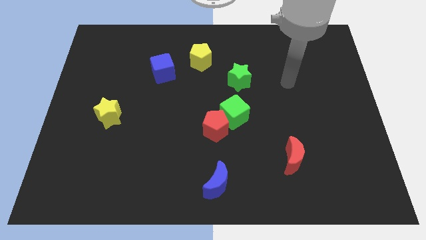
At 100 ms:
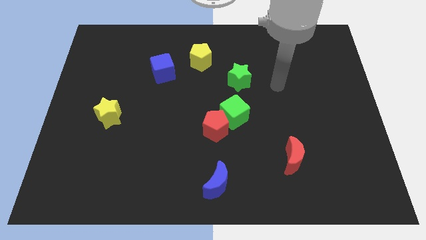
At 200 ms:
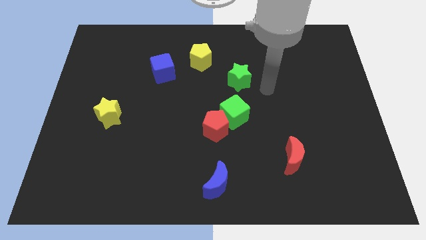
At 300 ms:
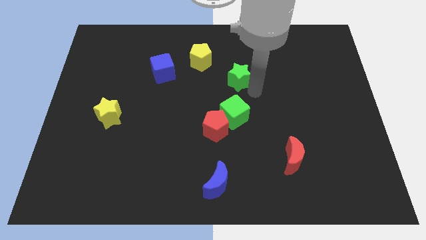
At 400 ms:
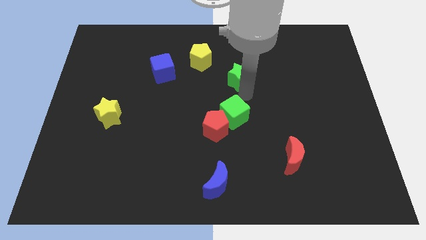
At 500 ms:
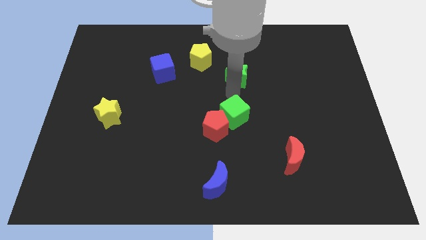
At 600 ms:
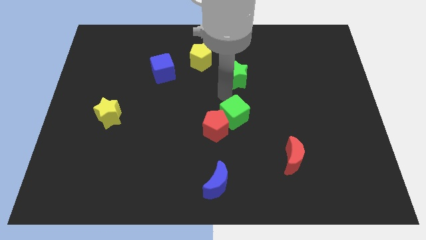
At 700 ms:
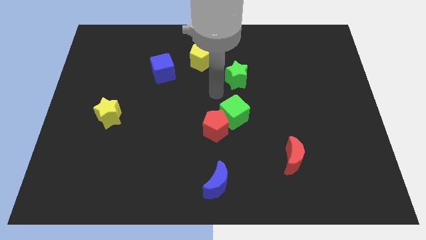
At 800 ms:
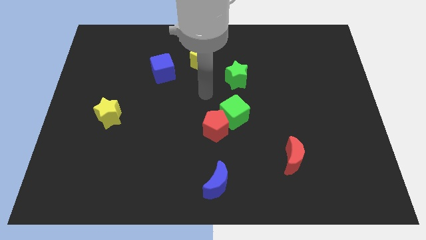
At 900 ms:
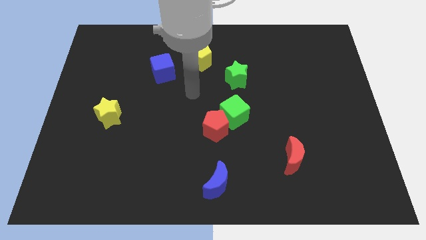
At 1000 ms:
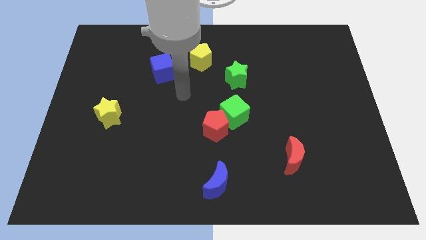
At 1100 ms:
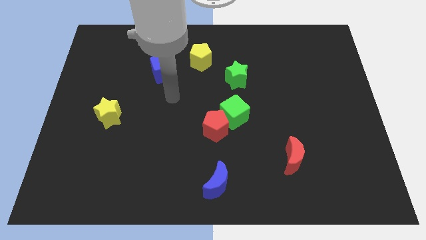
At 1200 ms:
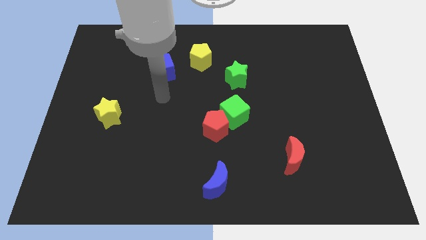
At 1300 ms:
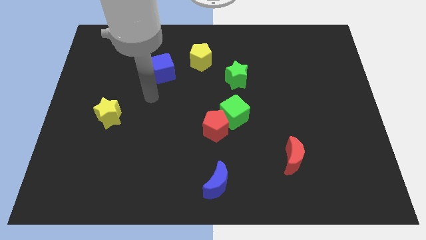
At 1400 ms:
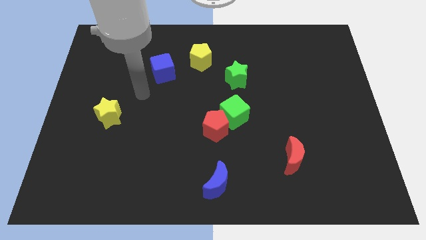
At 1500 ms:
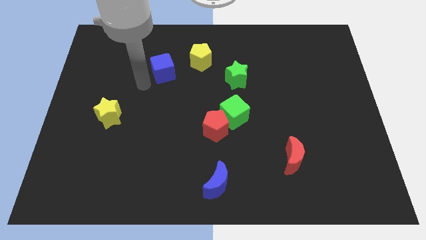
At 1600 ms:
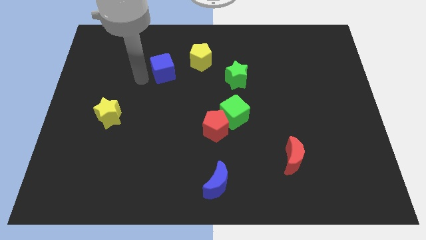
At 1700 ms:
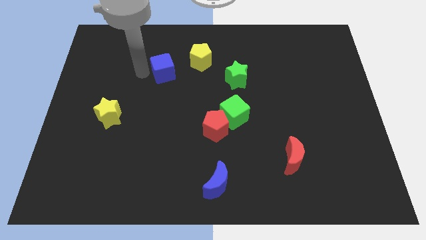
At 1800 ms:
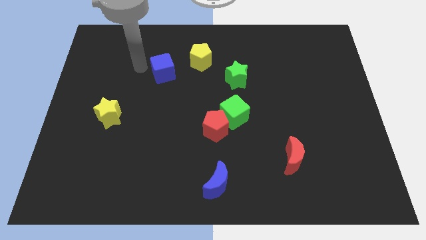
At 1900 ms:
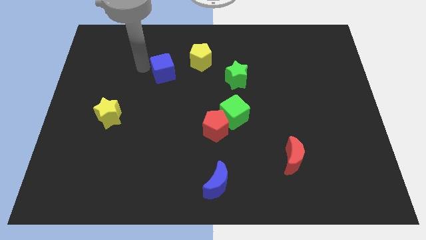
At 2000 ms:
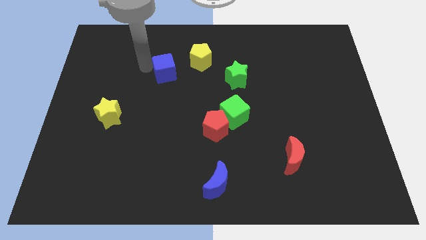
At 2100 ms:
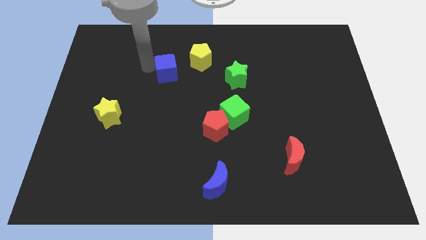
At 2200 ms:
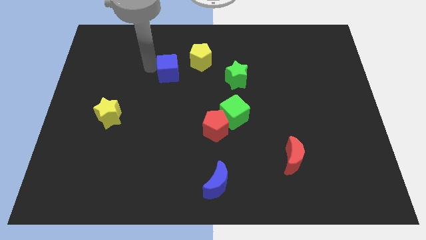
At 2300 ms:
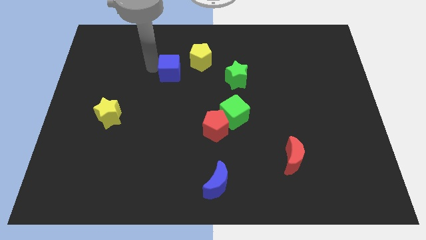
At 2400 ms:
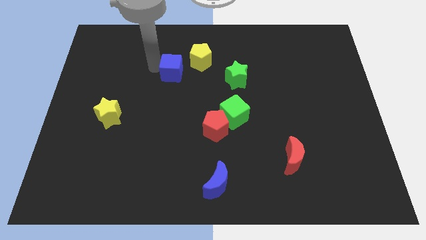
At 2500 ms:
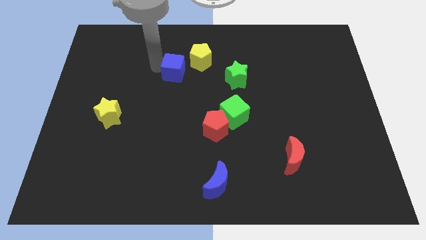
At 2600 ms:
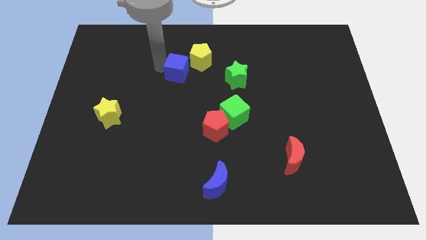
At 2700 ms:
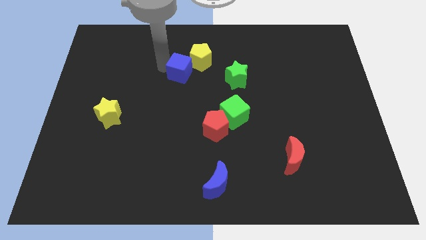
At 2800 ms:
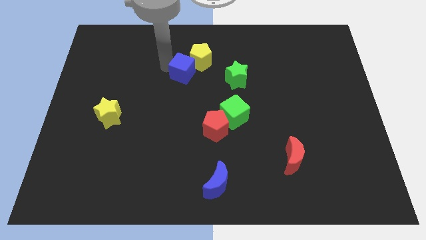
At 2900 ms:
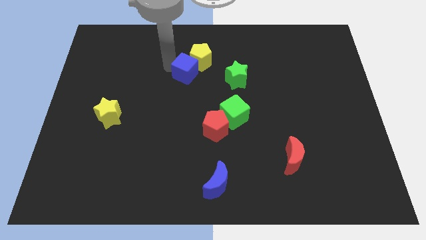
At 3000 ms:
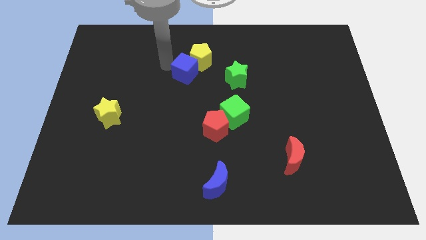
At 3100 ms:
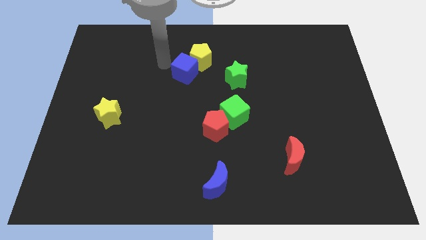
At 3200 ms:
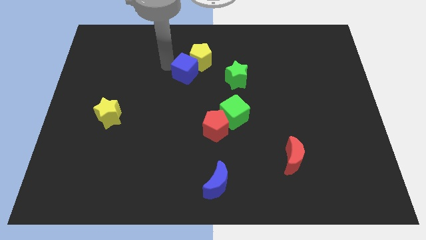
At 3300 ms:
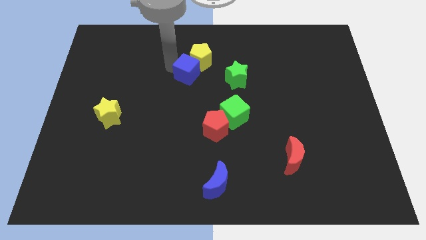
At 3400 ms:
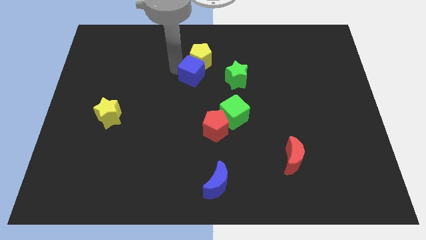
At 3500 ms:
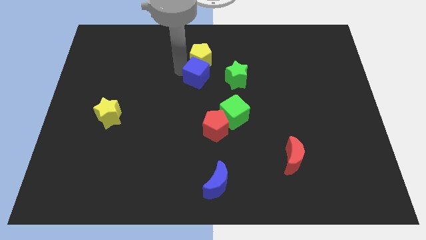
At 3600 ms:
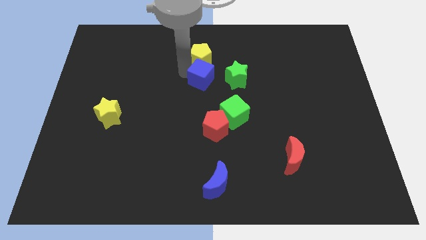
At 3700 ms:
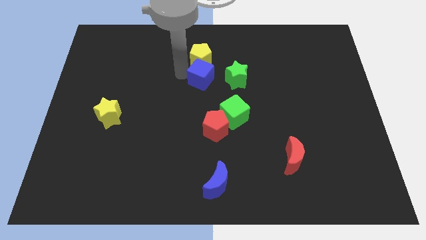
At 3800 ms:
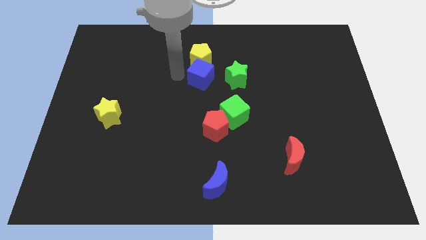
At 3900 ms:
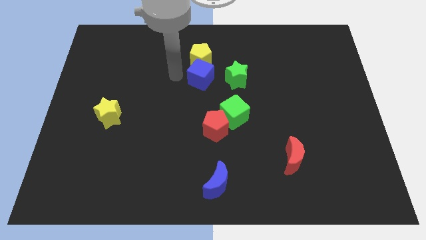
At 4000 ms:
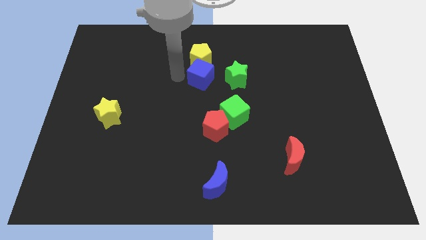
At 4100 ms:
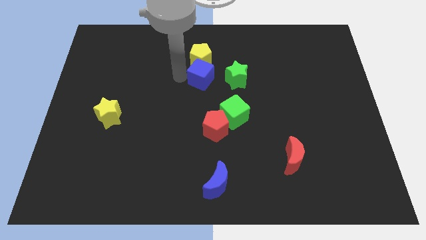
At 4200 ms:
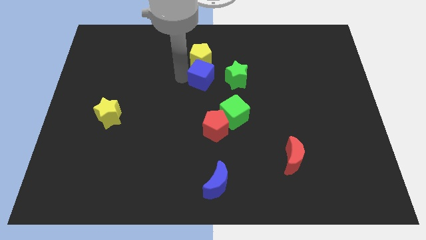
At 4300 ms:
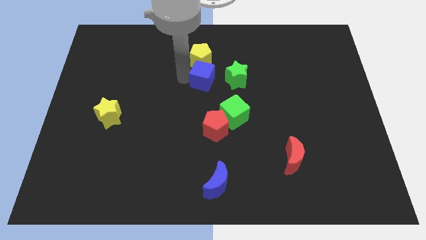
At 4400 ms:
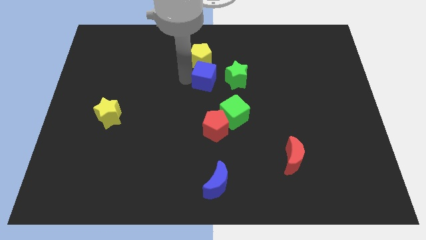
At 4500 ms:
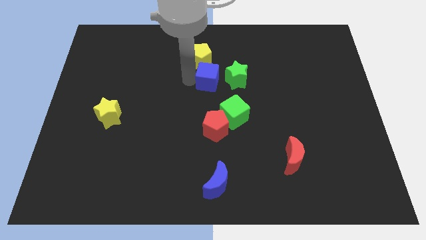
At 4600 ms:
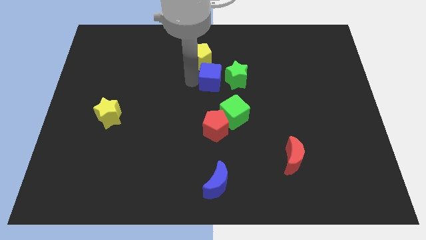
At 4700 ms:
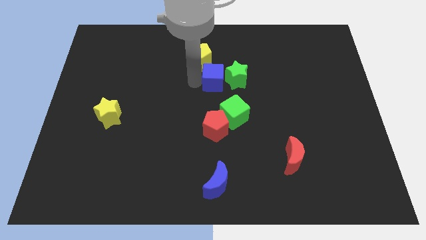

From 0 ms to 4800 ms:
move the blue cube to the green star

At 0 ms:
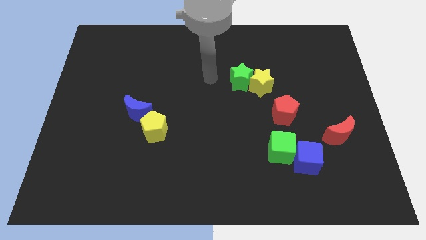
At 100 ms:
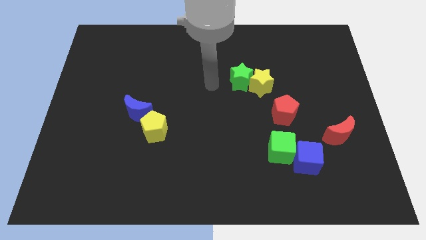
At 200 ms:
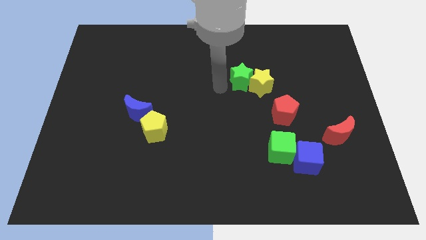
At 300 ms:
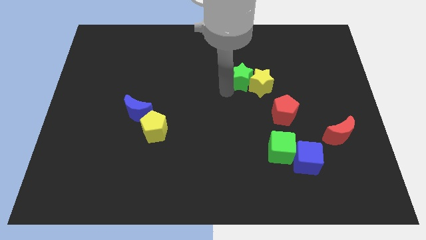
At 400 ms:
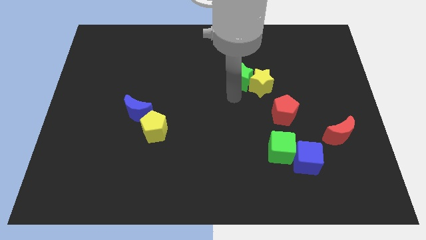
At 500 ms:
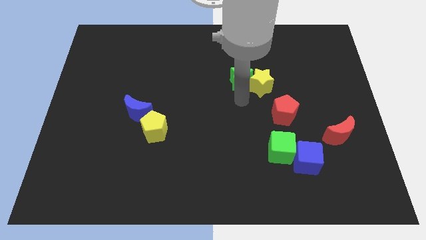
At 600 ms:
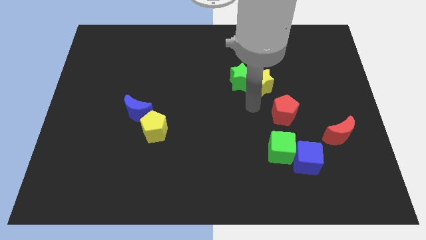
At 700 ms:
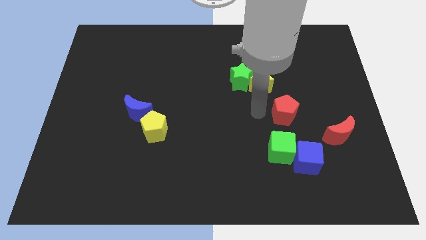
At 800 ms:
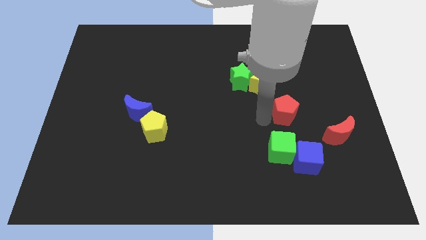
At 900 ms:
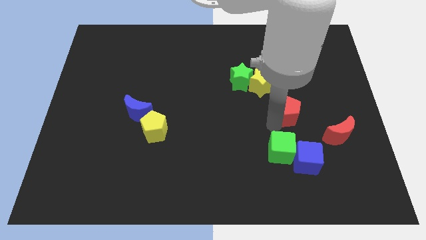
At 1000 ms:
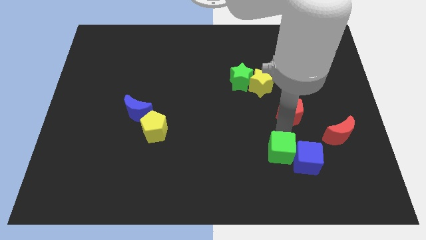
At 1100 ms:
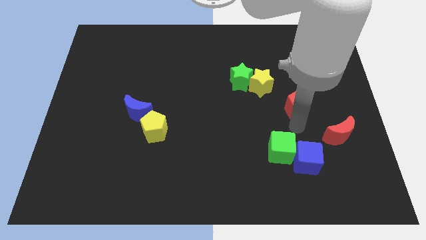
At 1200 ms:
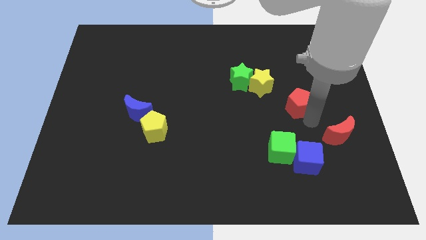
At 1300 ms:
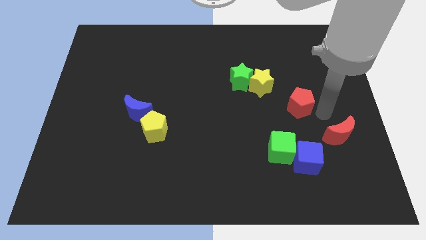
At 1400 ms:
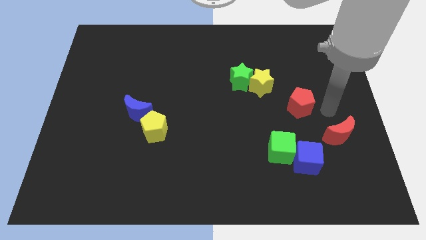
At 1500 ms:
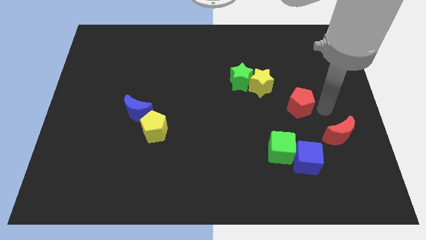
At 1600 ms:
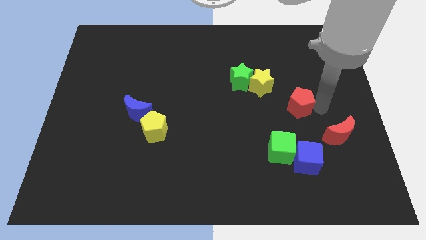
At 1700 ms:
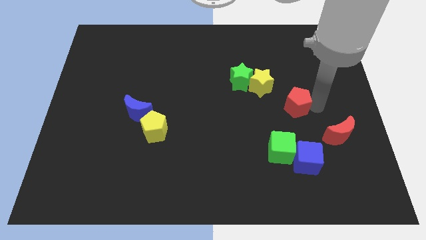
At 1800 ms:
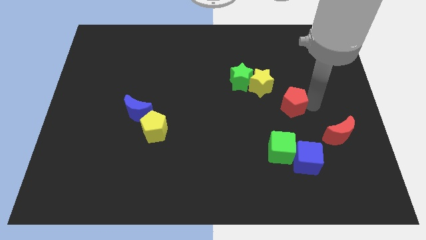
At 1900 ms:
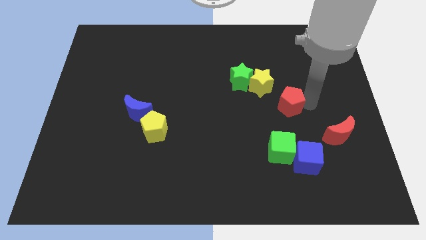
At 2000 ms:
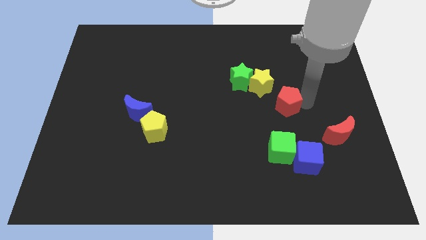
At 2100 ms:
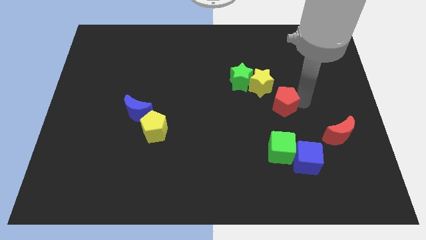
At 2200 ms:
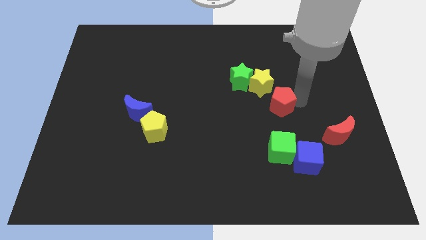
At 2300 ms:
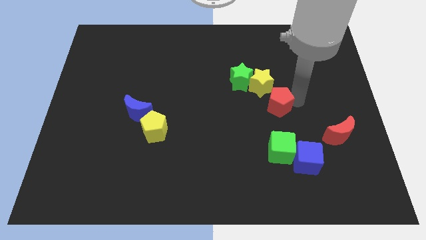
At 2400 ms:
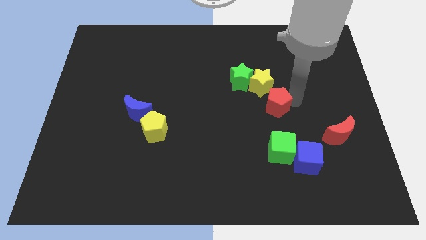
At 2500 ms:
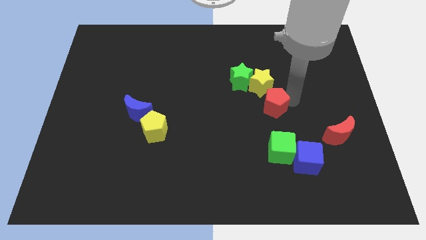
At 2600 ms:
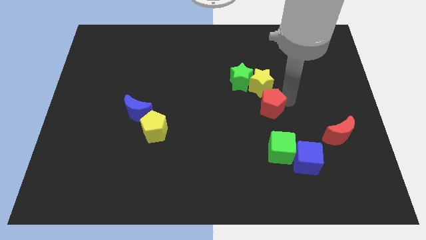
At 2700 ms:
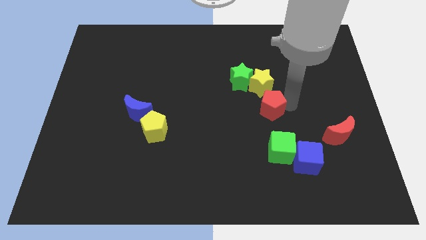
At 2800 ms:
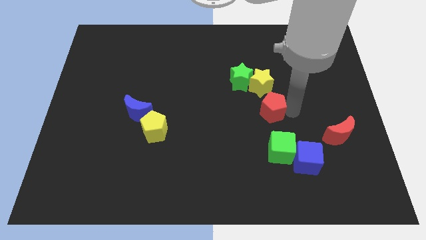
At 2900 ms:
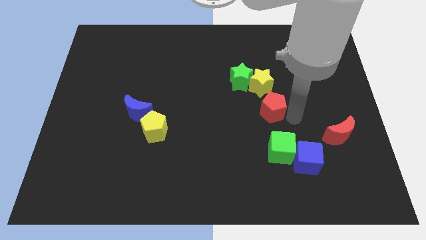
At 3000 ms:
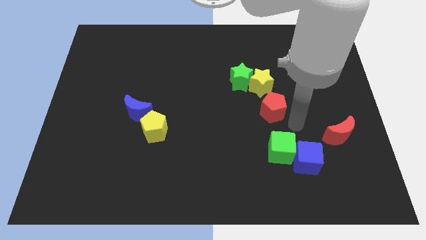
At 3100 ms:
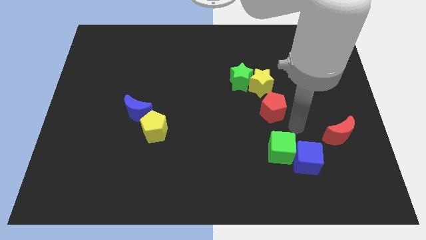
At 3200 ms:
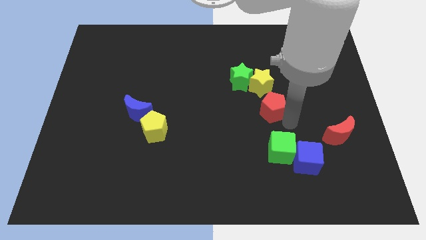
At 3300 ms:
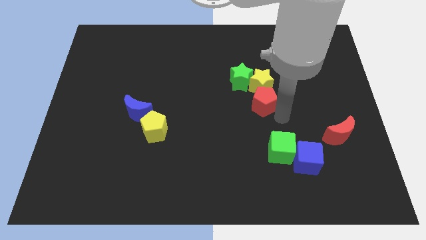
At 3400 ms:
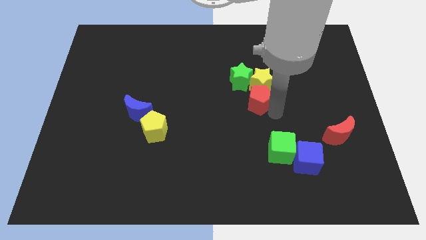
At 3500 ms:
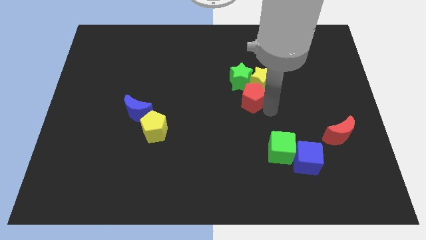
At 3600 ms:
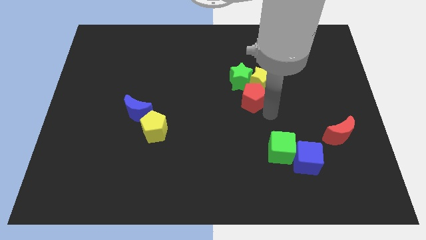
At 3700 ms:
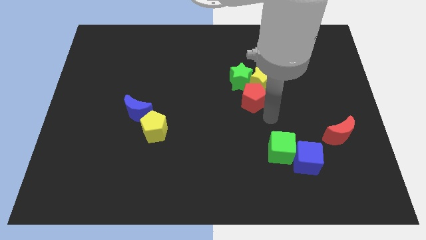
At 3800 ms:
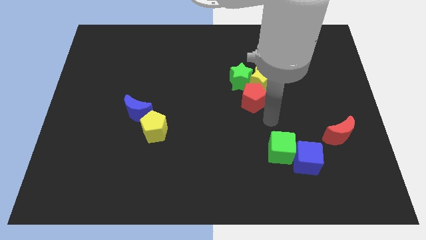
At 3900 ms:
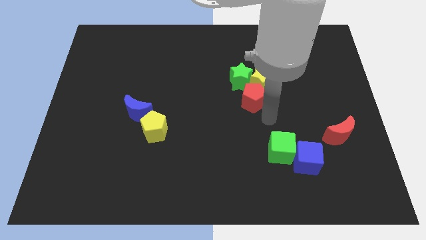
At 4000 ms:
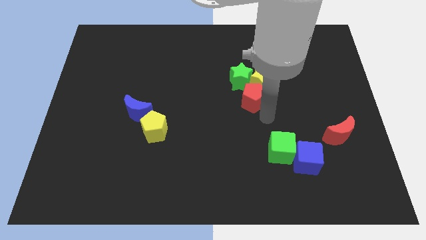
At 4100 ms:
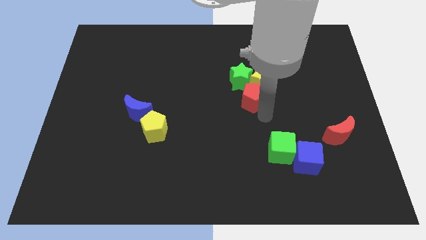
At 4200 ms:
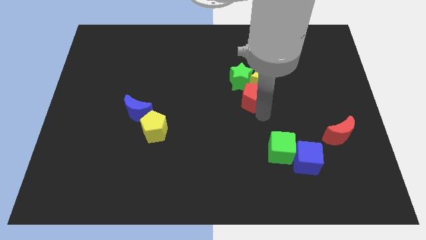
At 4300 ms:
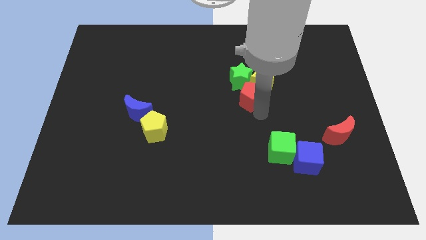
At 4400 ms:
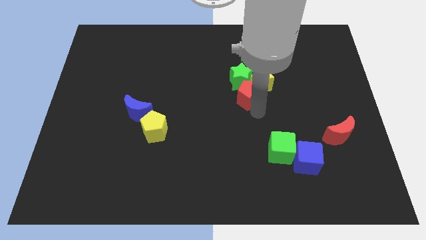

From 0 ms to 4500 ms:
slide the red pentagon to the green star
